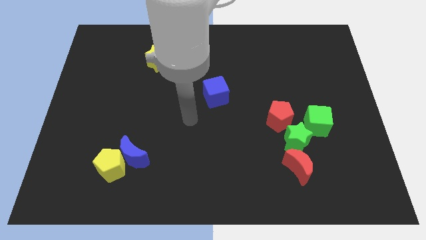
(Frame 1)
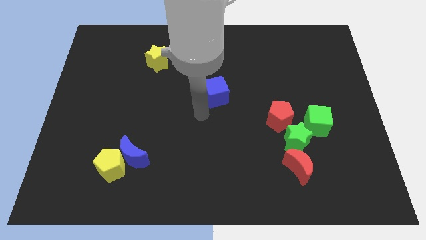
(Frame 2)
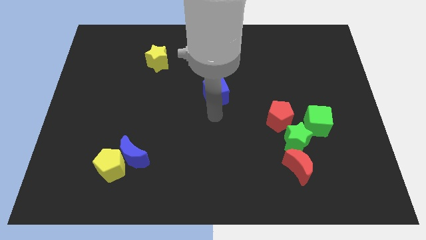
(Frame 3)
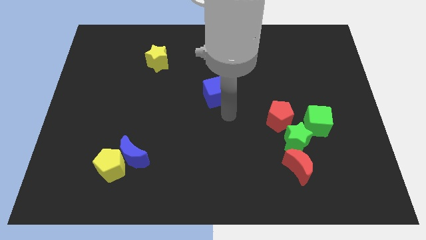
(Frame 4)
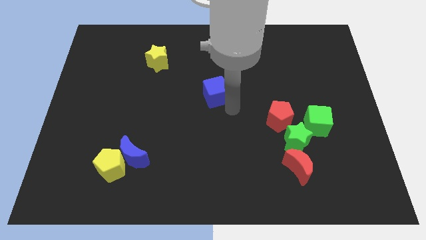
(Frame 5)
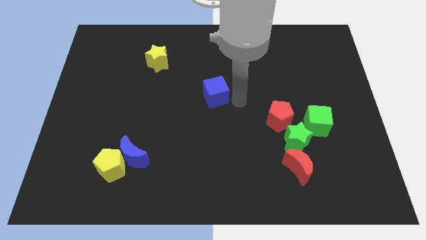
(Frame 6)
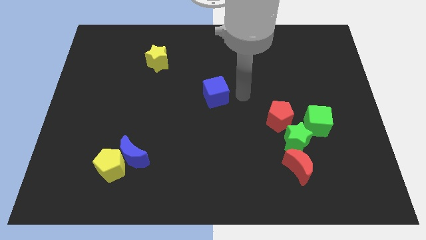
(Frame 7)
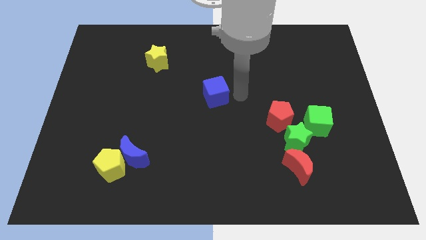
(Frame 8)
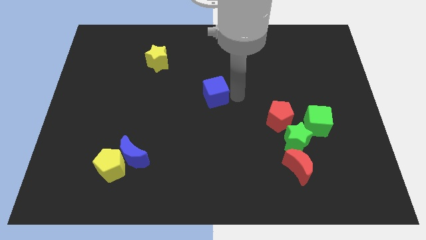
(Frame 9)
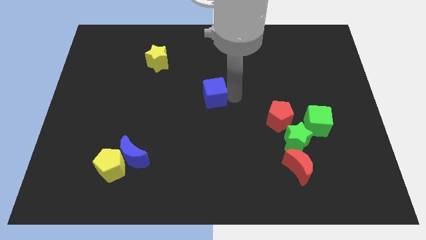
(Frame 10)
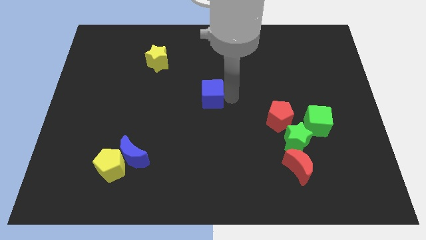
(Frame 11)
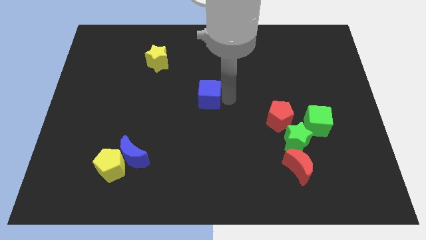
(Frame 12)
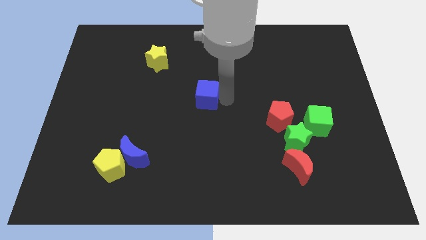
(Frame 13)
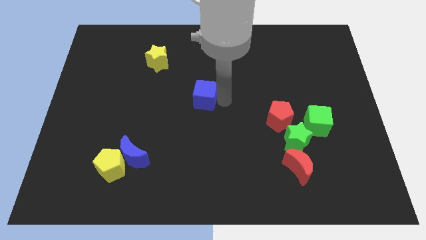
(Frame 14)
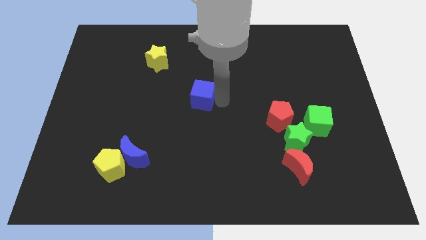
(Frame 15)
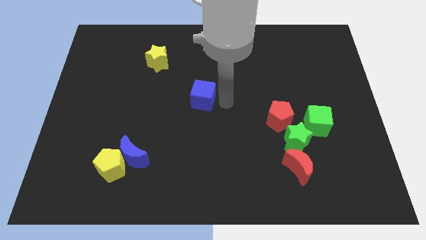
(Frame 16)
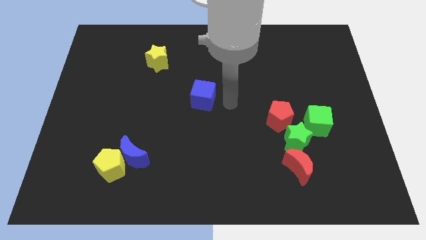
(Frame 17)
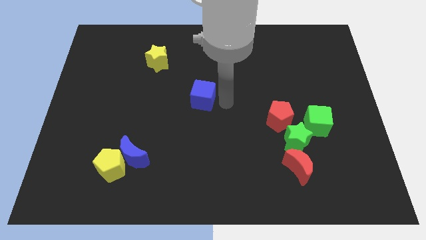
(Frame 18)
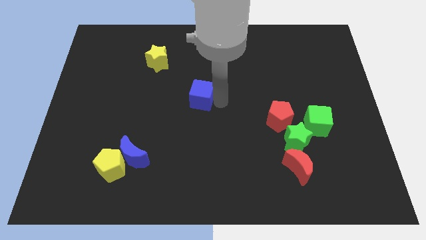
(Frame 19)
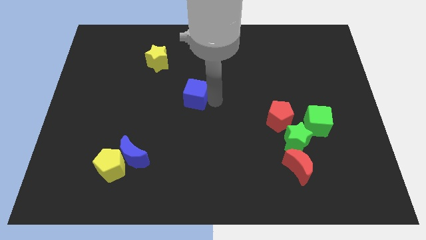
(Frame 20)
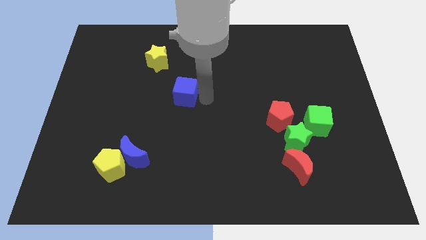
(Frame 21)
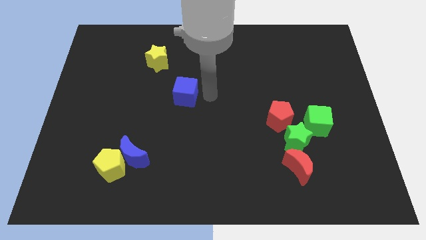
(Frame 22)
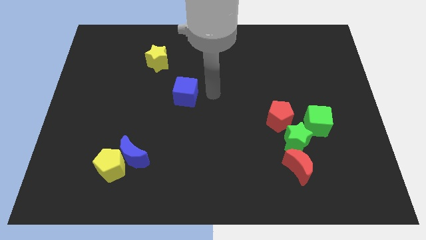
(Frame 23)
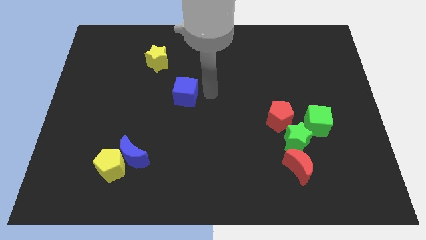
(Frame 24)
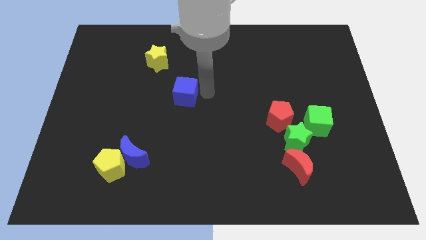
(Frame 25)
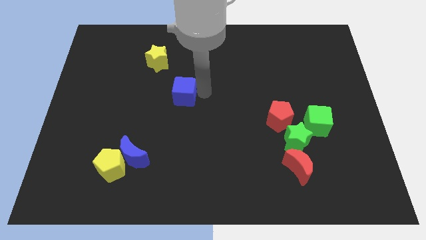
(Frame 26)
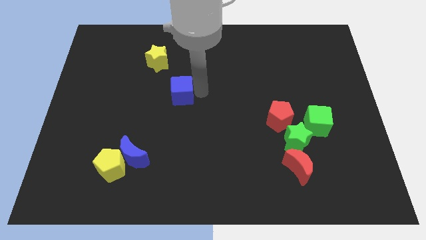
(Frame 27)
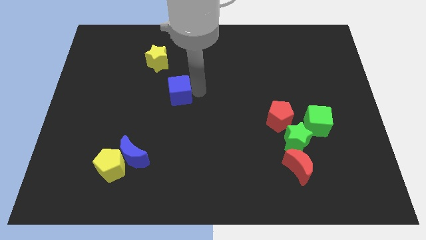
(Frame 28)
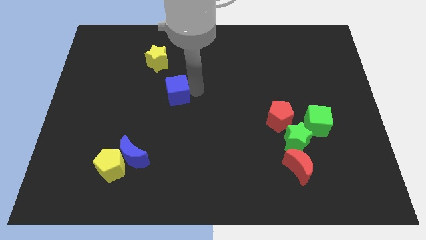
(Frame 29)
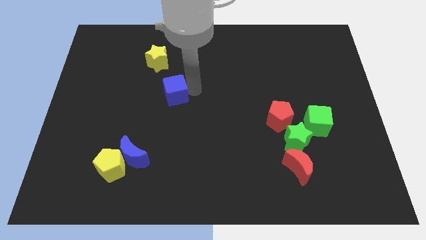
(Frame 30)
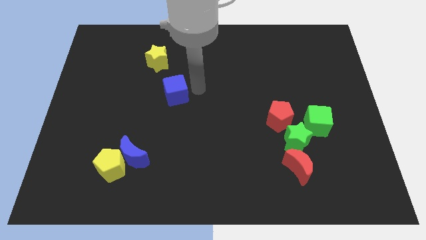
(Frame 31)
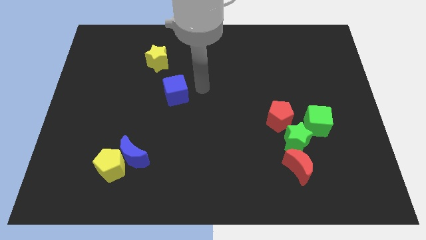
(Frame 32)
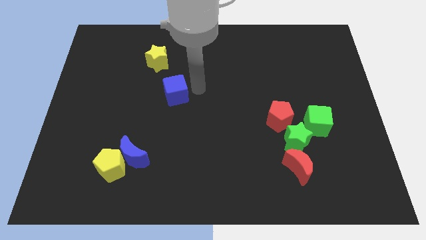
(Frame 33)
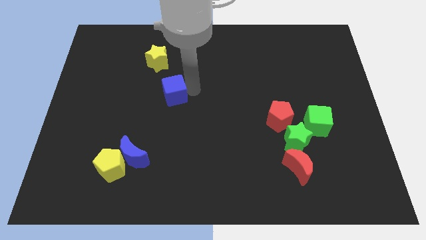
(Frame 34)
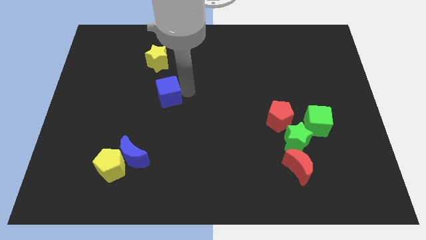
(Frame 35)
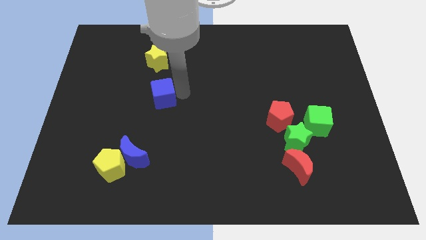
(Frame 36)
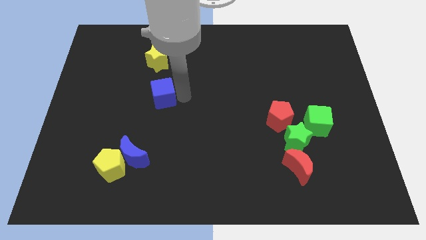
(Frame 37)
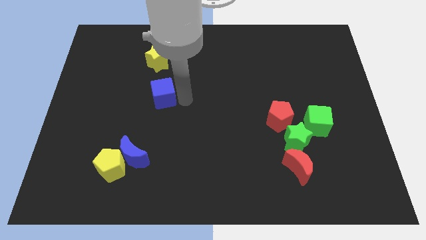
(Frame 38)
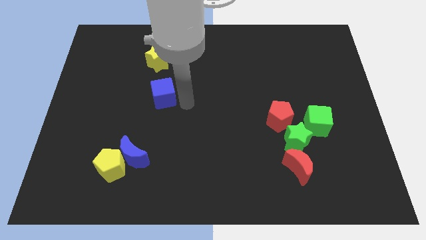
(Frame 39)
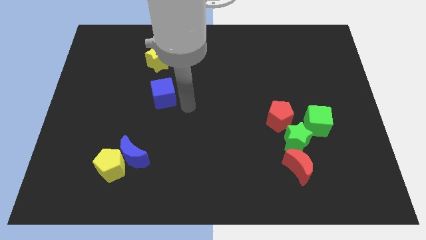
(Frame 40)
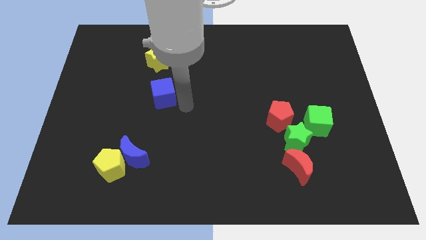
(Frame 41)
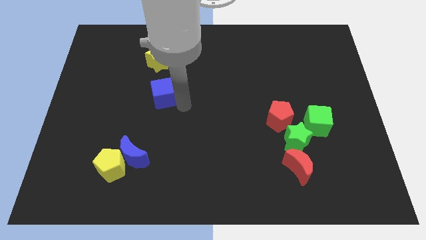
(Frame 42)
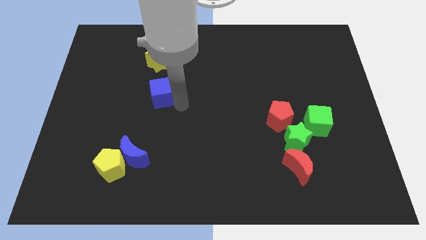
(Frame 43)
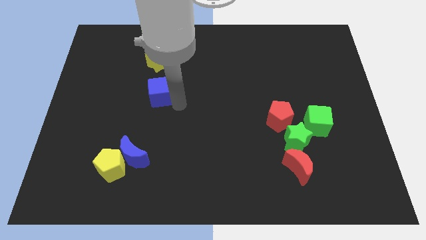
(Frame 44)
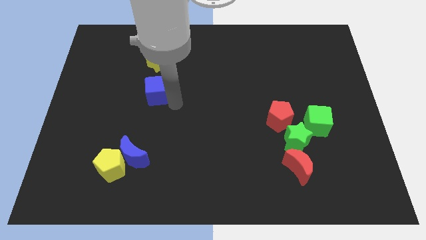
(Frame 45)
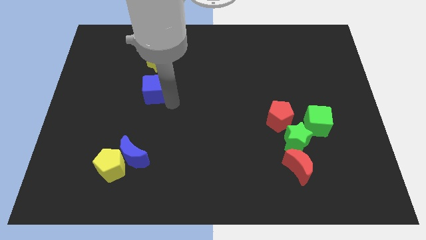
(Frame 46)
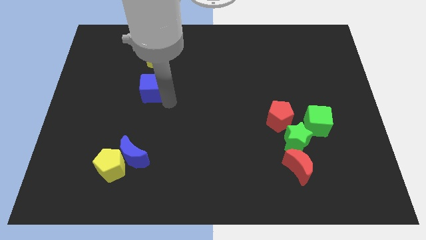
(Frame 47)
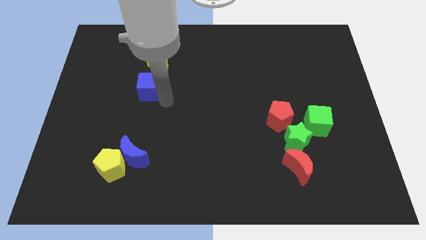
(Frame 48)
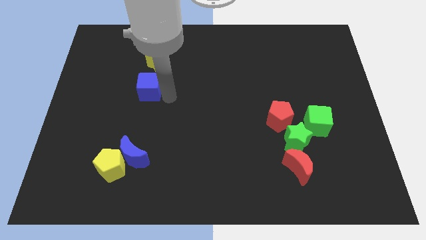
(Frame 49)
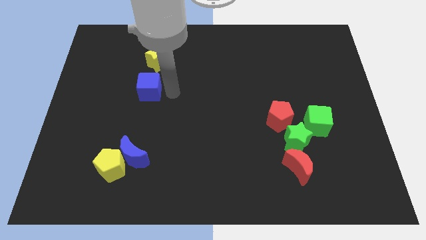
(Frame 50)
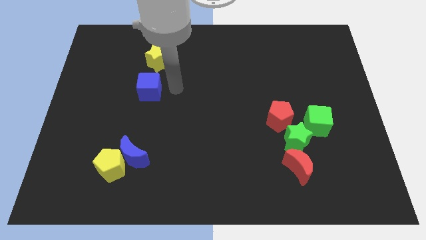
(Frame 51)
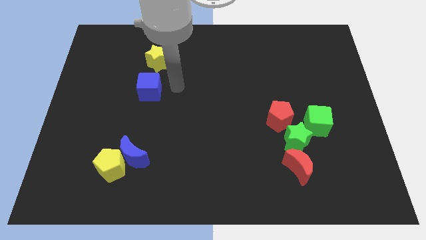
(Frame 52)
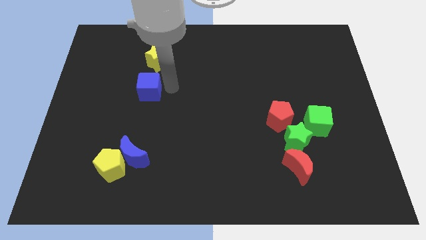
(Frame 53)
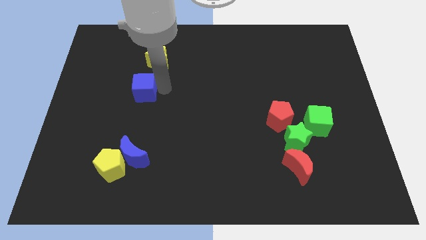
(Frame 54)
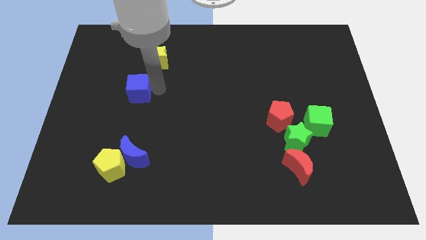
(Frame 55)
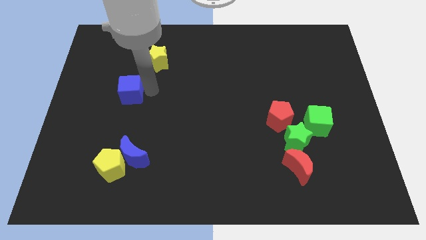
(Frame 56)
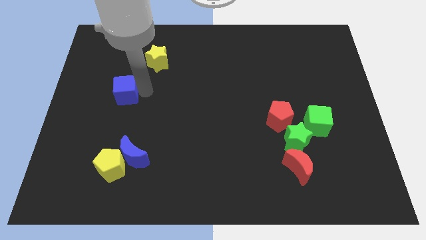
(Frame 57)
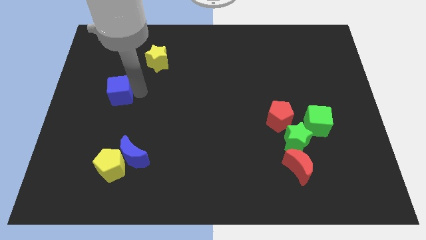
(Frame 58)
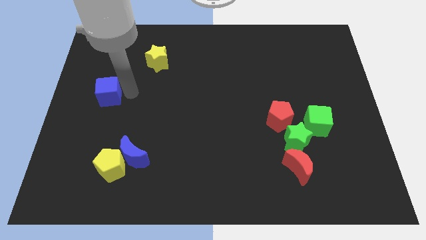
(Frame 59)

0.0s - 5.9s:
put the blue cube to the left side of the board

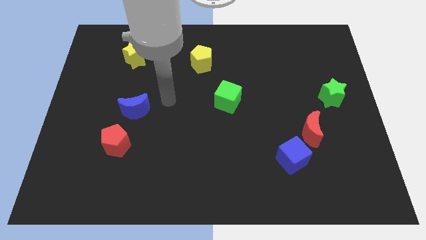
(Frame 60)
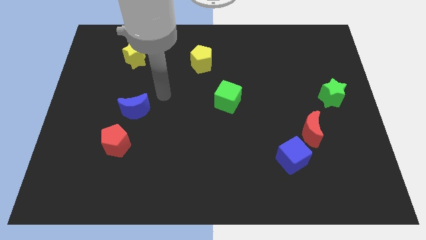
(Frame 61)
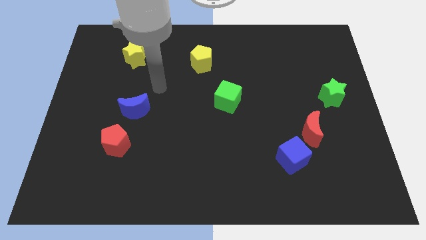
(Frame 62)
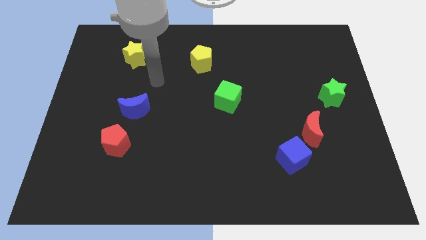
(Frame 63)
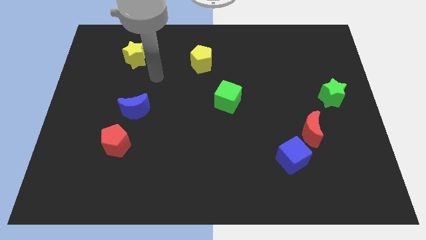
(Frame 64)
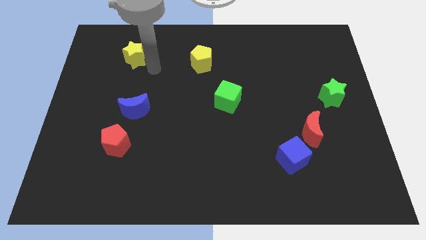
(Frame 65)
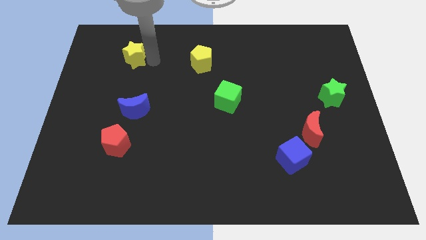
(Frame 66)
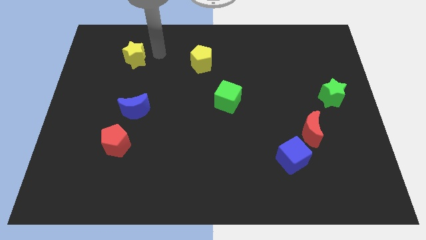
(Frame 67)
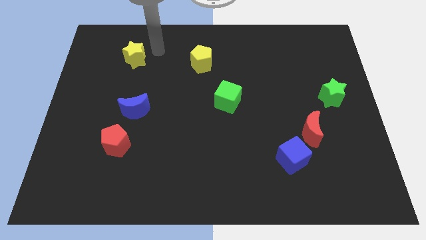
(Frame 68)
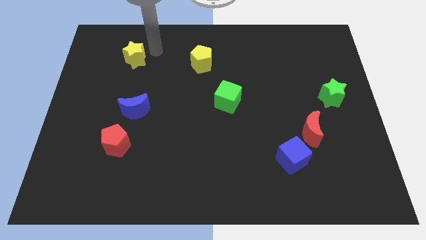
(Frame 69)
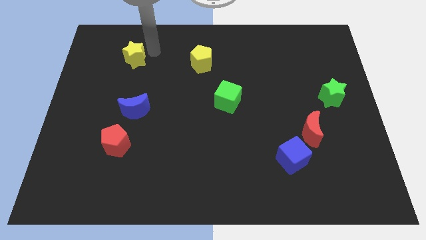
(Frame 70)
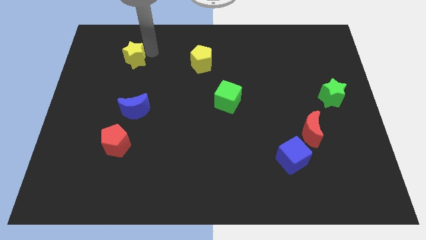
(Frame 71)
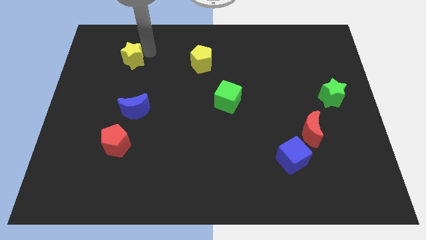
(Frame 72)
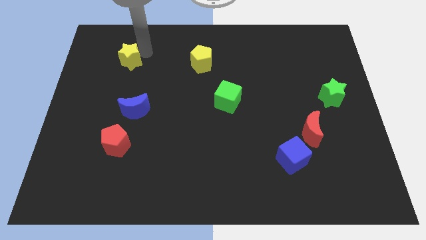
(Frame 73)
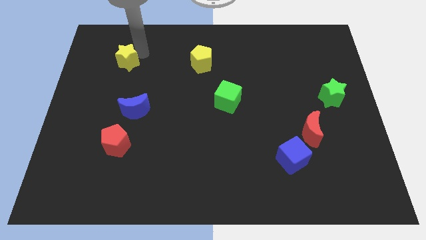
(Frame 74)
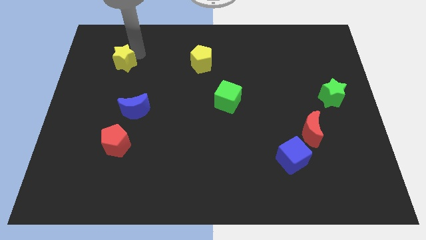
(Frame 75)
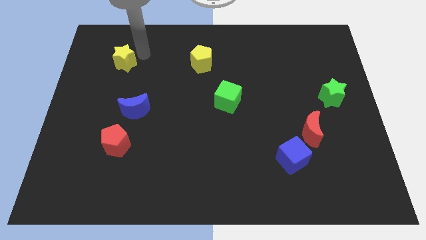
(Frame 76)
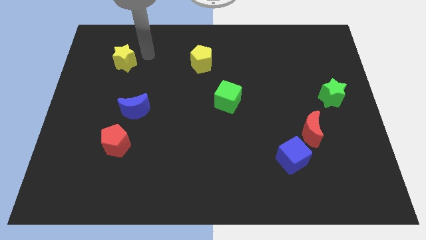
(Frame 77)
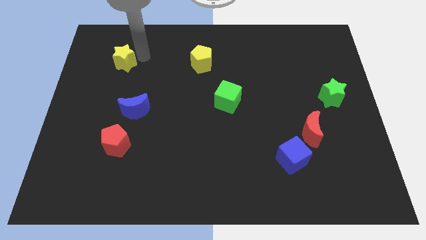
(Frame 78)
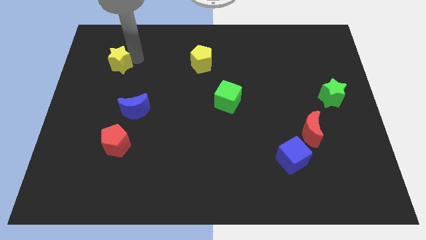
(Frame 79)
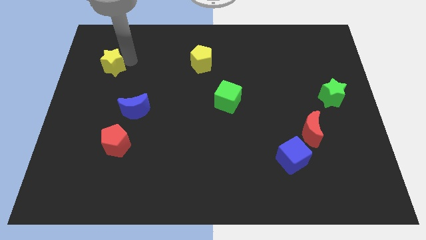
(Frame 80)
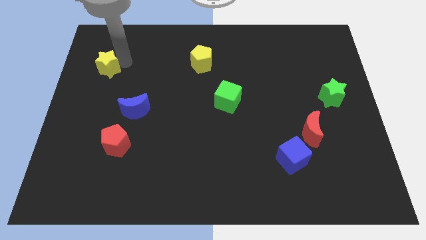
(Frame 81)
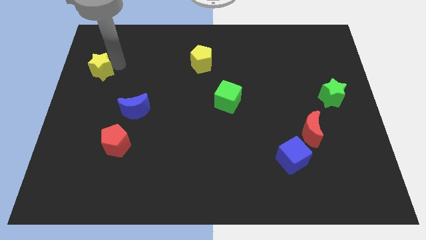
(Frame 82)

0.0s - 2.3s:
put the yellow star to the left side
